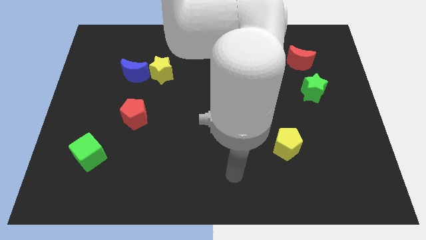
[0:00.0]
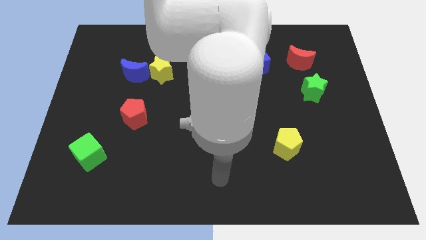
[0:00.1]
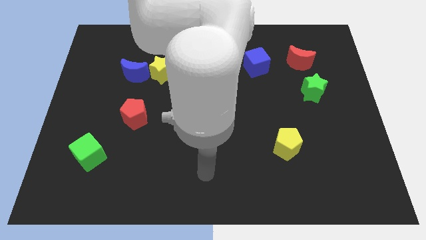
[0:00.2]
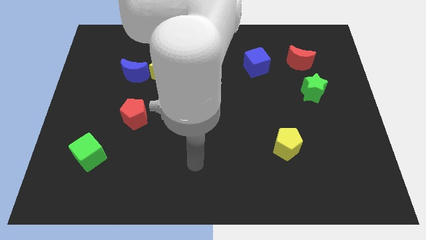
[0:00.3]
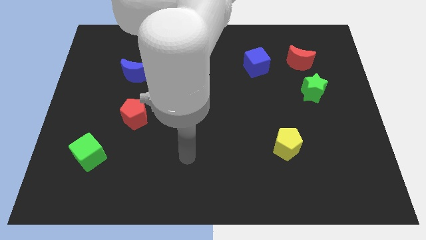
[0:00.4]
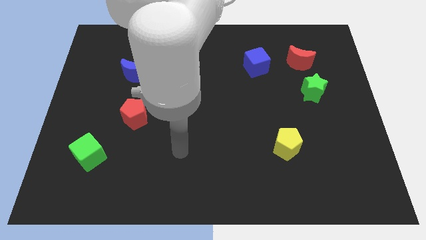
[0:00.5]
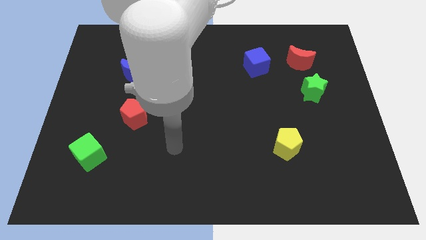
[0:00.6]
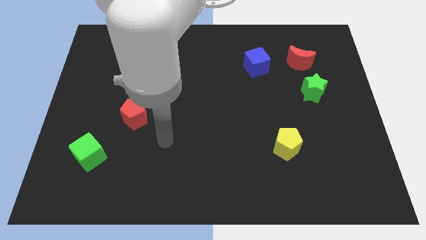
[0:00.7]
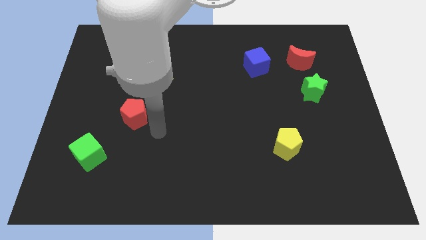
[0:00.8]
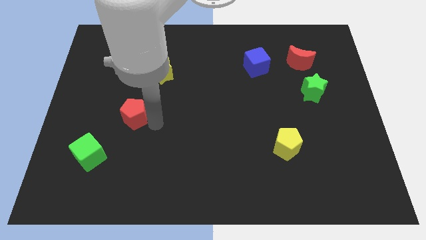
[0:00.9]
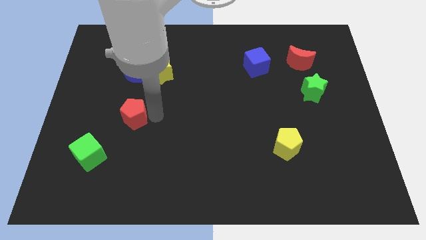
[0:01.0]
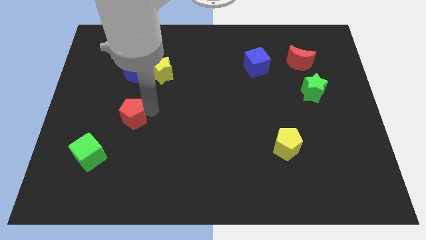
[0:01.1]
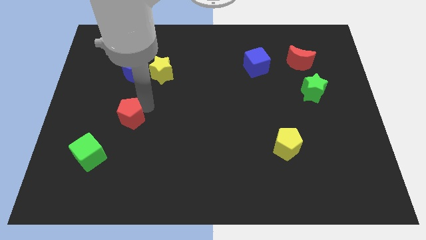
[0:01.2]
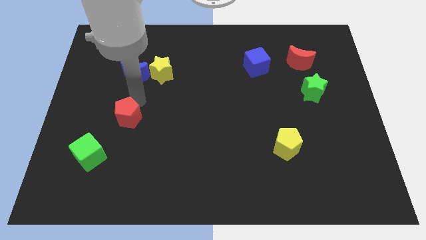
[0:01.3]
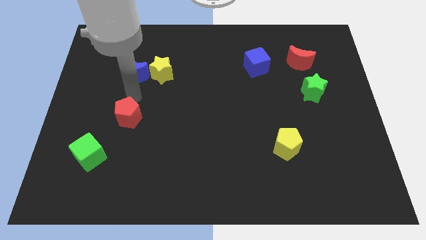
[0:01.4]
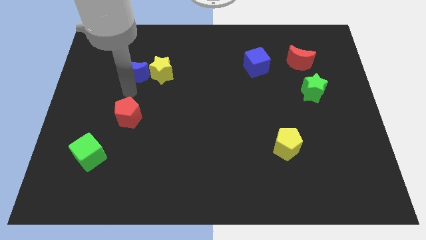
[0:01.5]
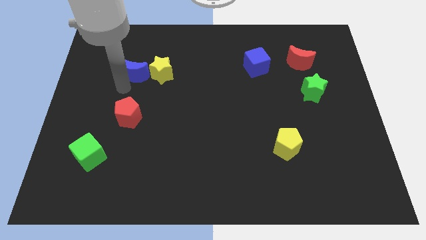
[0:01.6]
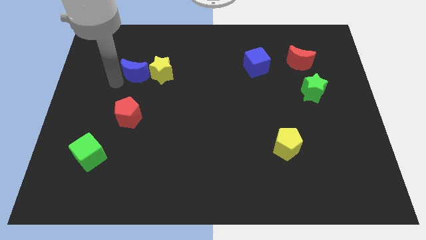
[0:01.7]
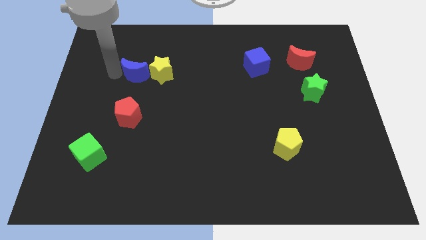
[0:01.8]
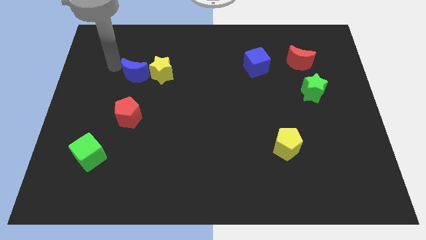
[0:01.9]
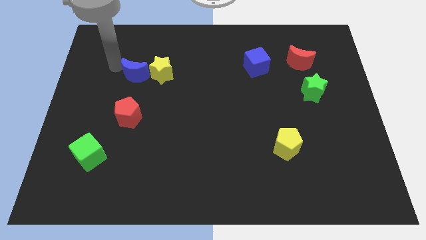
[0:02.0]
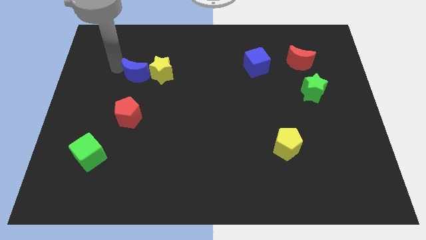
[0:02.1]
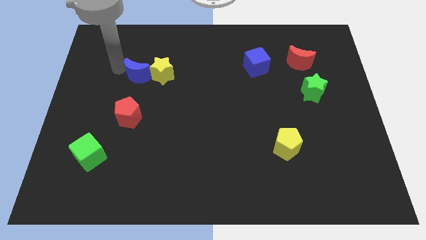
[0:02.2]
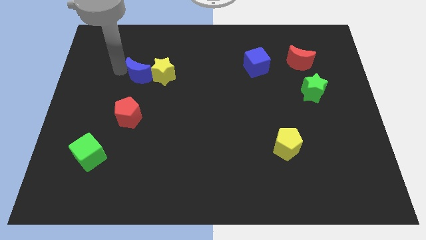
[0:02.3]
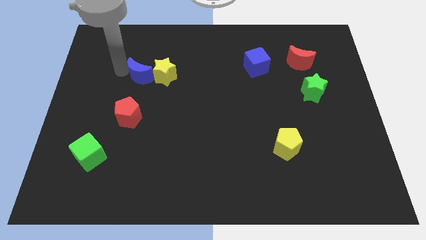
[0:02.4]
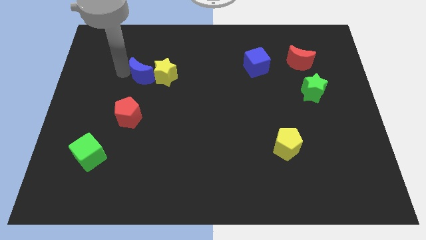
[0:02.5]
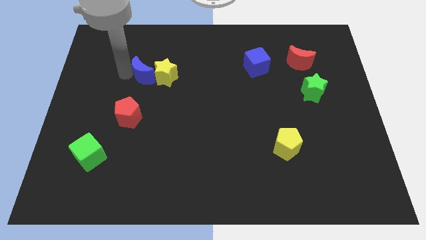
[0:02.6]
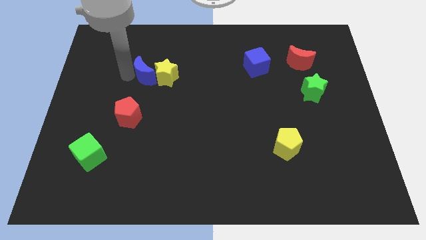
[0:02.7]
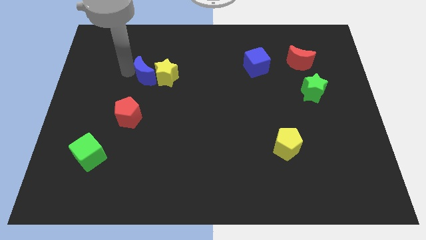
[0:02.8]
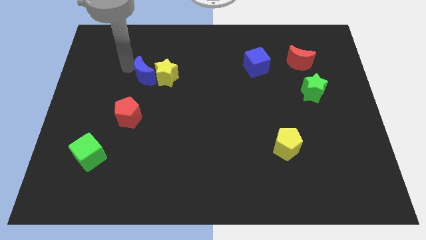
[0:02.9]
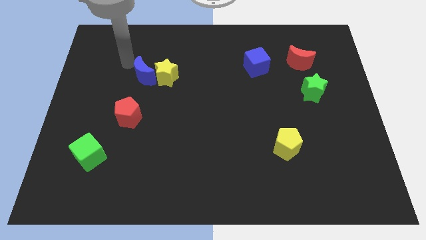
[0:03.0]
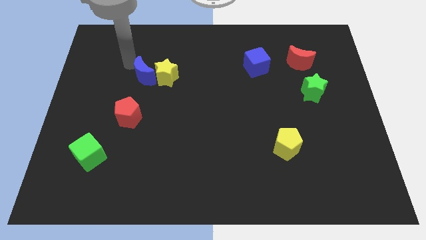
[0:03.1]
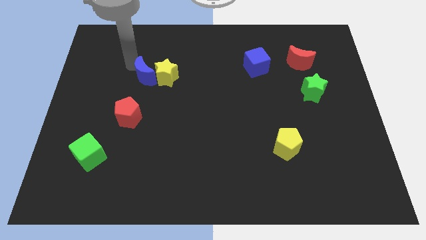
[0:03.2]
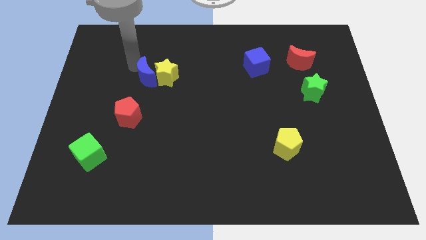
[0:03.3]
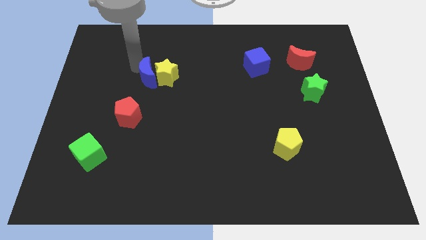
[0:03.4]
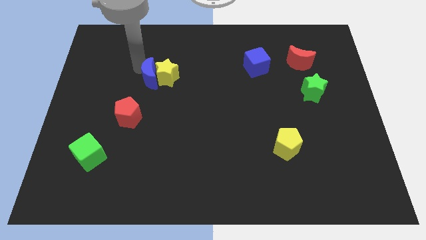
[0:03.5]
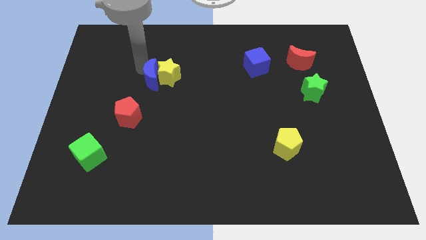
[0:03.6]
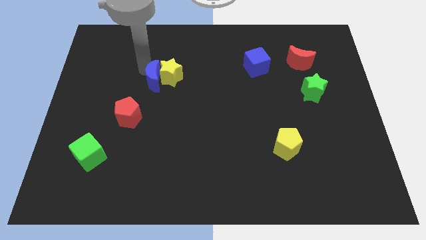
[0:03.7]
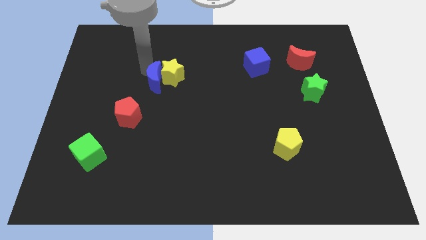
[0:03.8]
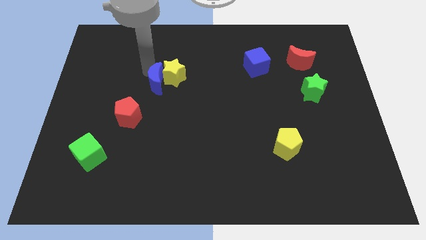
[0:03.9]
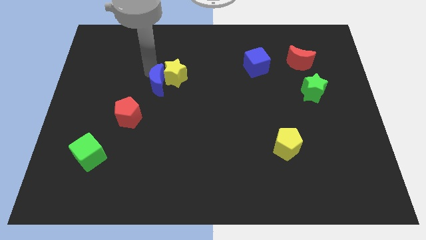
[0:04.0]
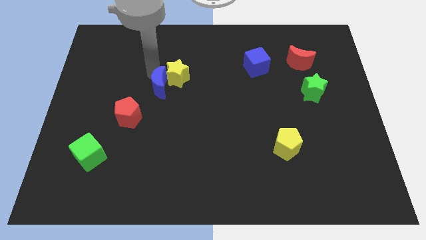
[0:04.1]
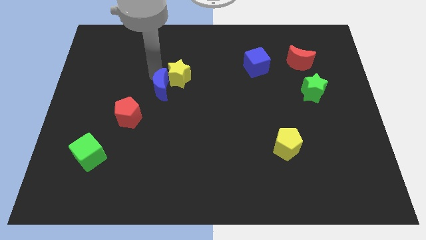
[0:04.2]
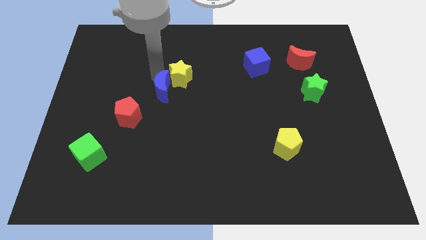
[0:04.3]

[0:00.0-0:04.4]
put the blue moon to the center of the board

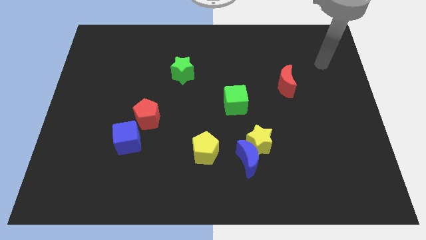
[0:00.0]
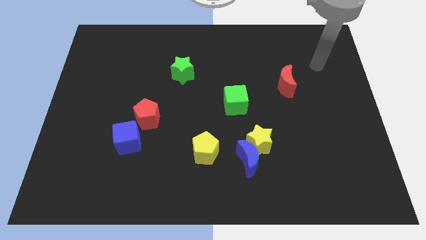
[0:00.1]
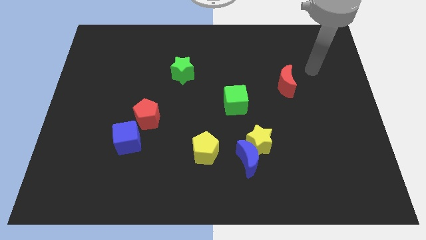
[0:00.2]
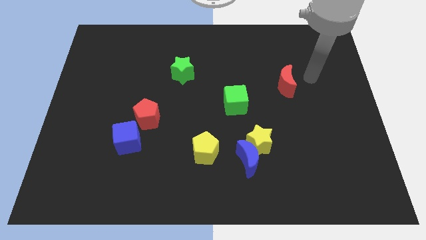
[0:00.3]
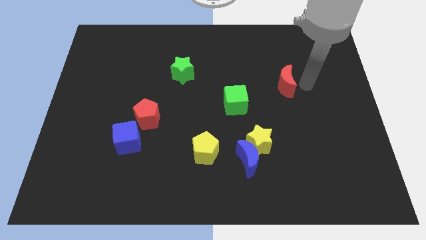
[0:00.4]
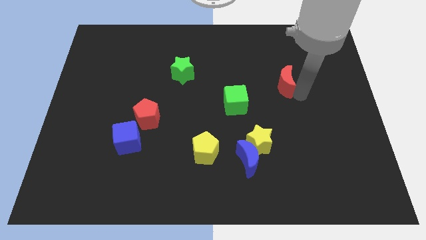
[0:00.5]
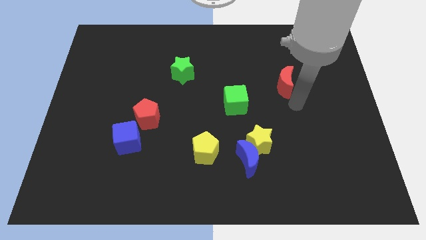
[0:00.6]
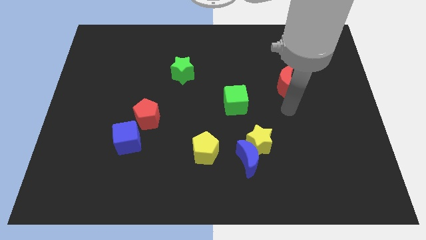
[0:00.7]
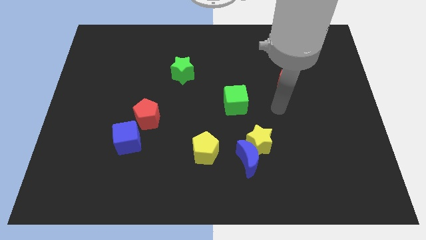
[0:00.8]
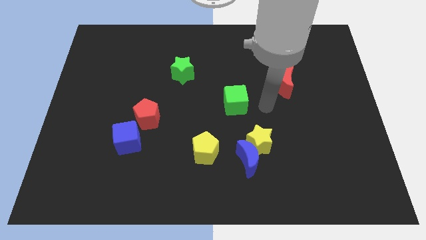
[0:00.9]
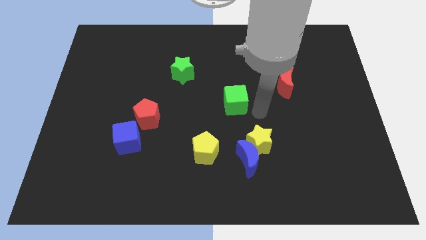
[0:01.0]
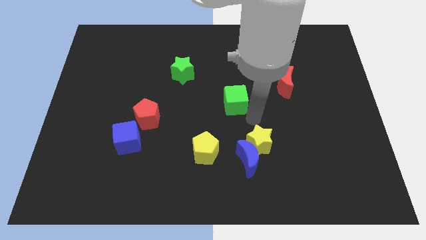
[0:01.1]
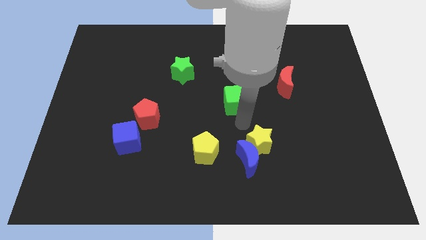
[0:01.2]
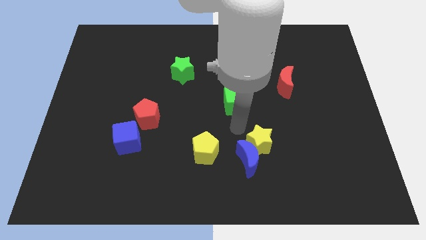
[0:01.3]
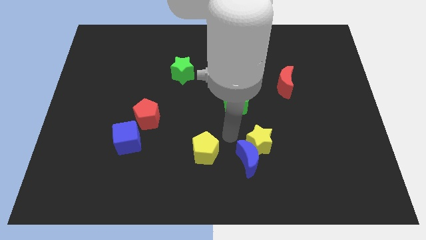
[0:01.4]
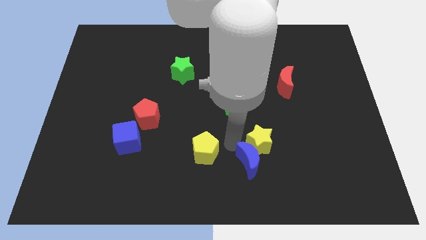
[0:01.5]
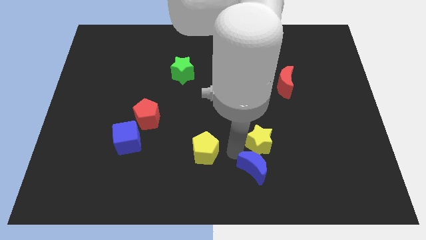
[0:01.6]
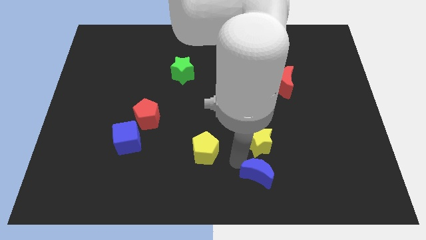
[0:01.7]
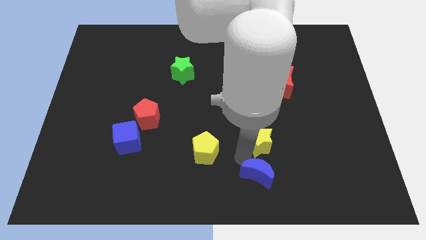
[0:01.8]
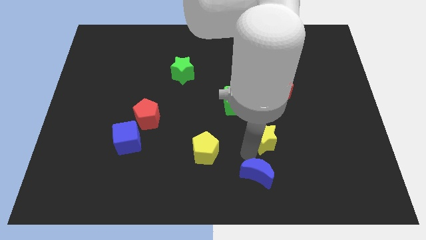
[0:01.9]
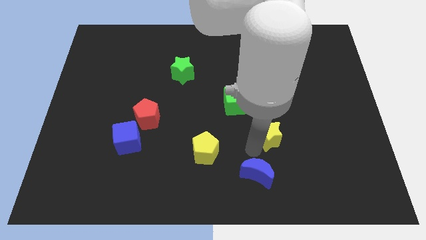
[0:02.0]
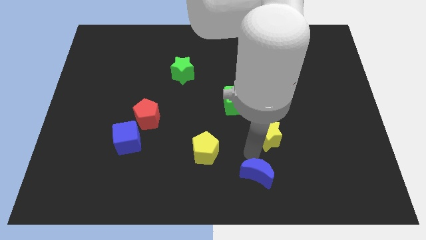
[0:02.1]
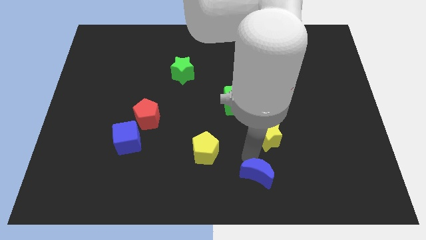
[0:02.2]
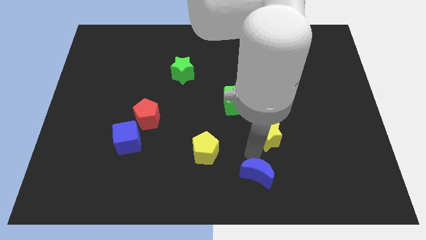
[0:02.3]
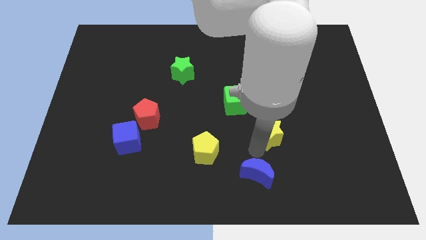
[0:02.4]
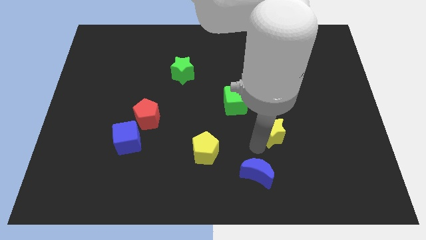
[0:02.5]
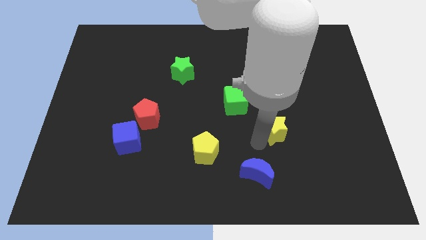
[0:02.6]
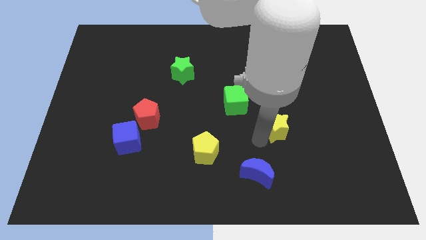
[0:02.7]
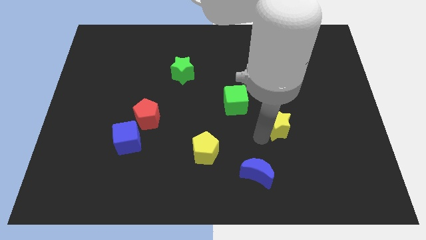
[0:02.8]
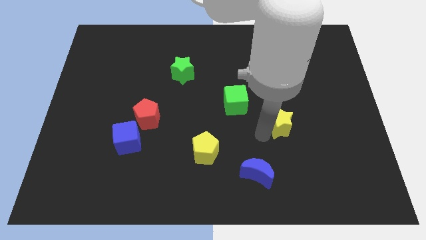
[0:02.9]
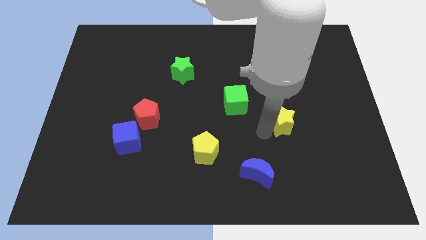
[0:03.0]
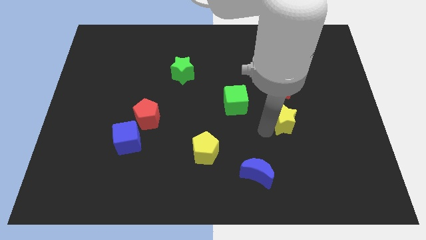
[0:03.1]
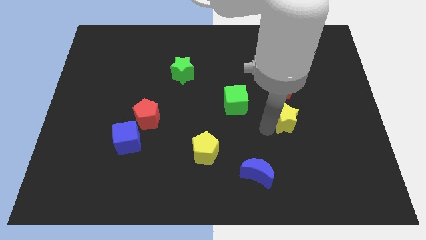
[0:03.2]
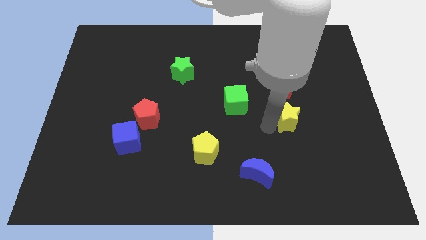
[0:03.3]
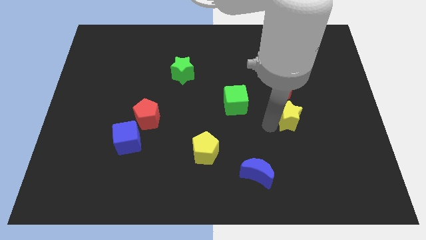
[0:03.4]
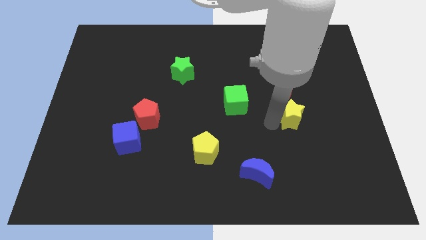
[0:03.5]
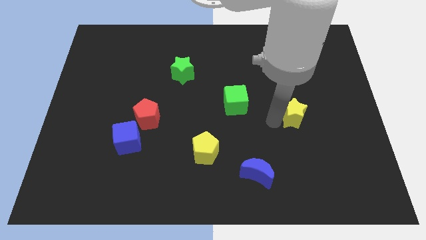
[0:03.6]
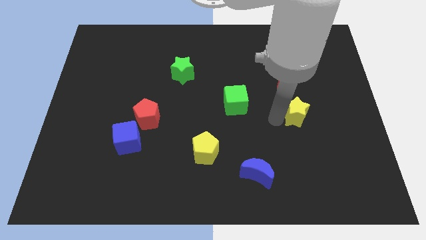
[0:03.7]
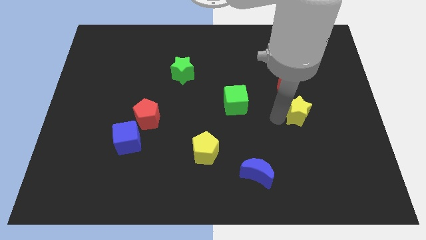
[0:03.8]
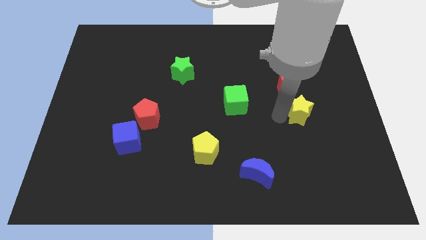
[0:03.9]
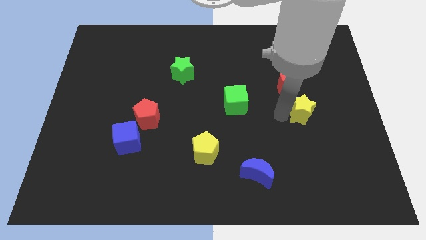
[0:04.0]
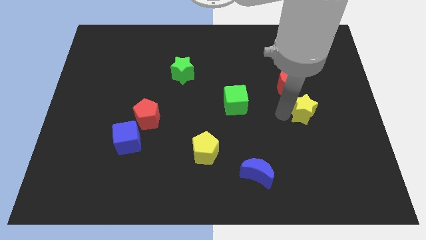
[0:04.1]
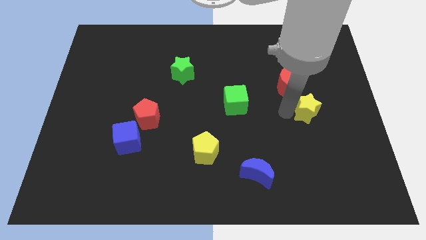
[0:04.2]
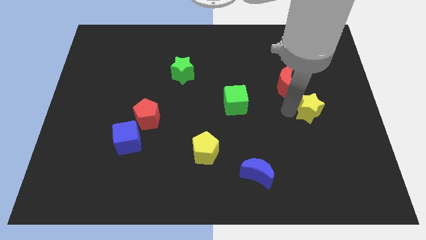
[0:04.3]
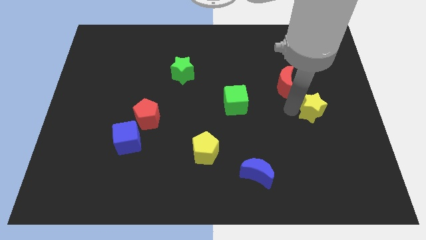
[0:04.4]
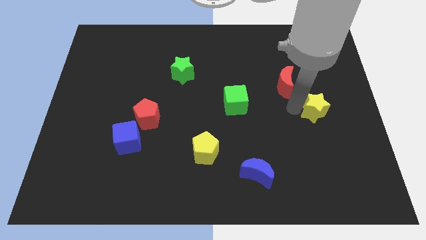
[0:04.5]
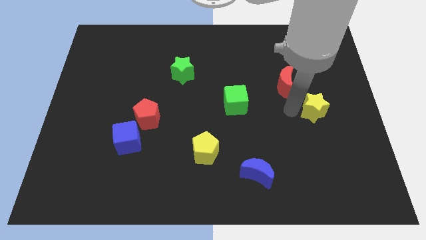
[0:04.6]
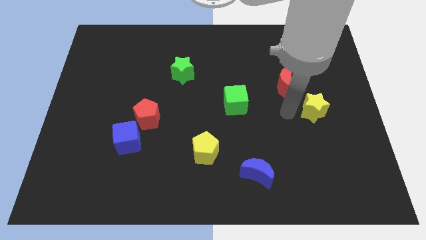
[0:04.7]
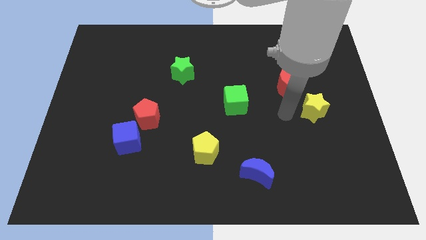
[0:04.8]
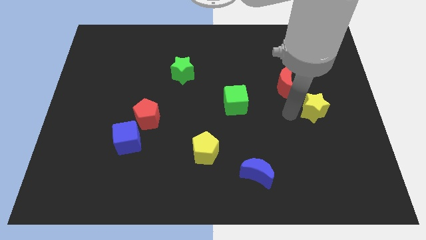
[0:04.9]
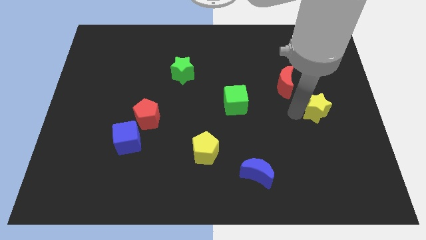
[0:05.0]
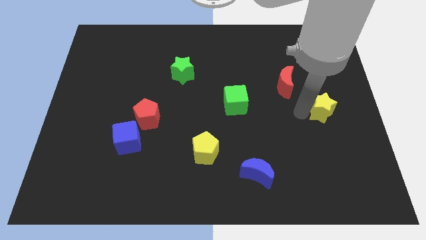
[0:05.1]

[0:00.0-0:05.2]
slide the yellow star to the right side of the board
